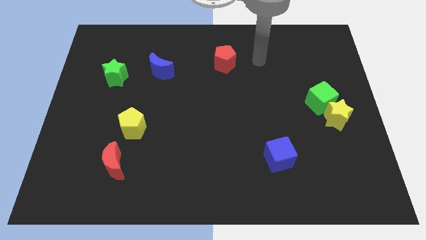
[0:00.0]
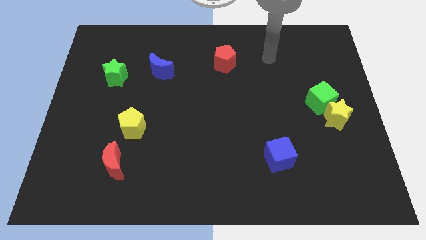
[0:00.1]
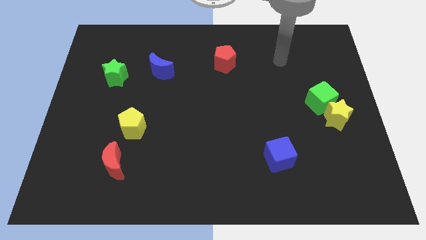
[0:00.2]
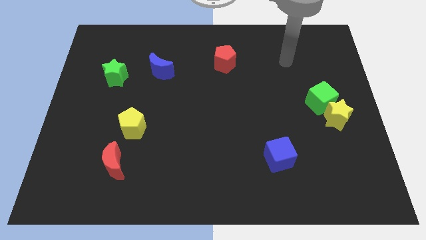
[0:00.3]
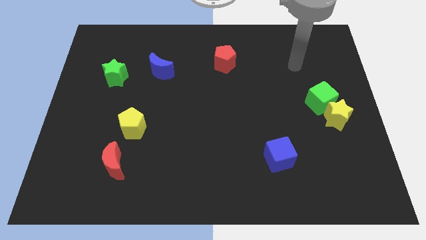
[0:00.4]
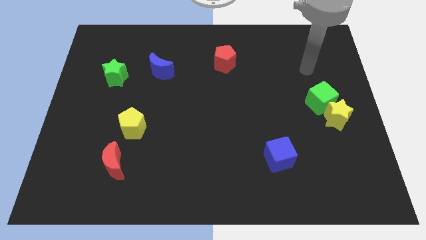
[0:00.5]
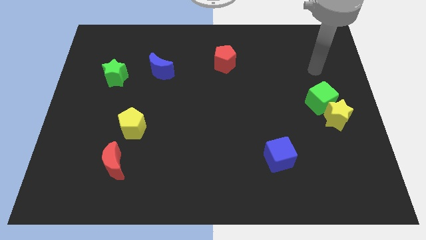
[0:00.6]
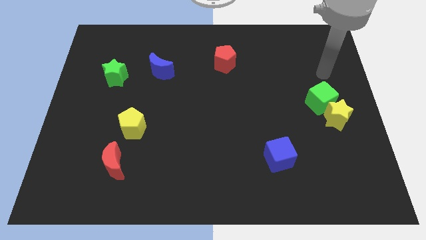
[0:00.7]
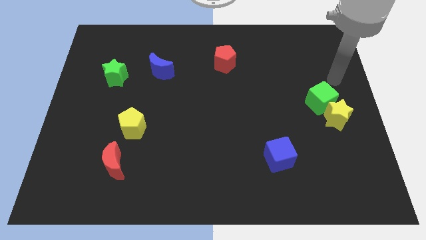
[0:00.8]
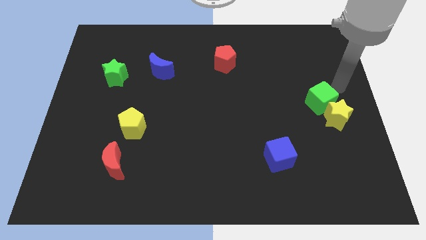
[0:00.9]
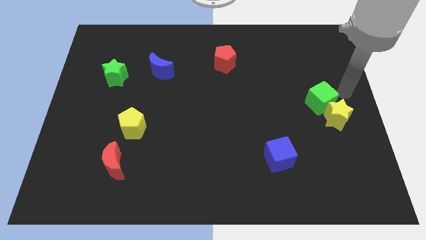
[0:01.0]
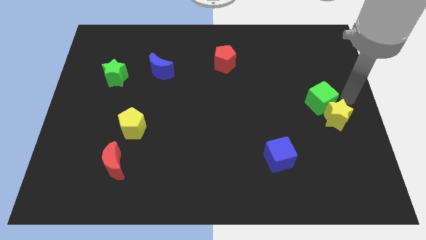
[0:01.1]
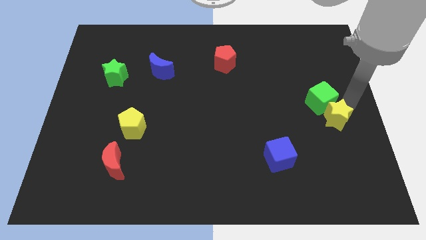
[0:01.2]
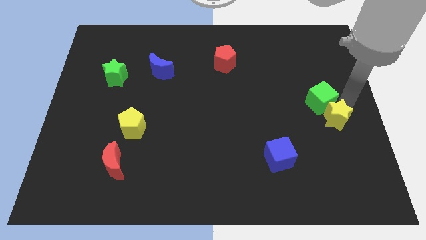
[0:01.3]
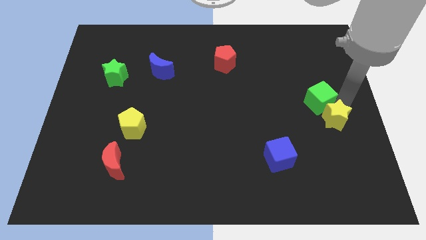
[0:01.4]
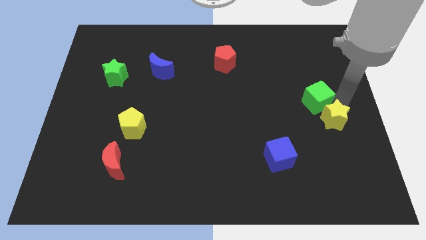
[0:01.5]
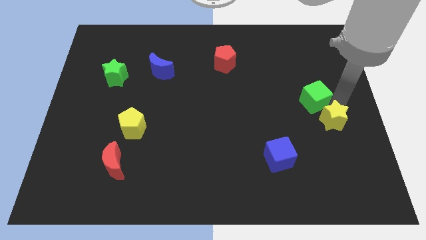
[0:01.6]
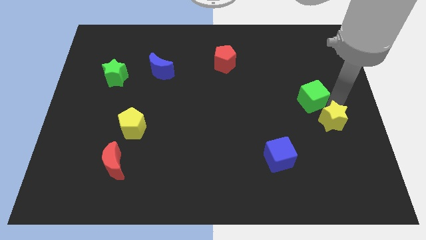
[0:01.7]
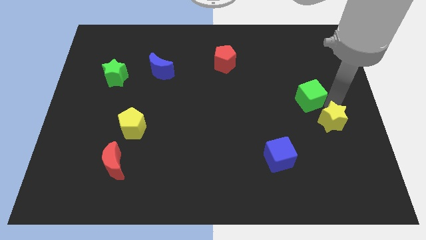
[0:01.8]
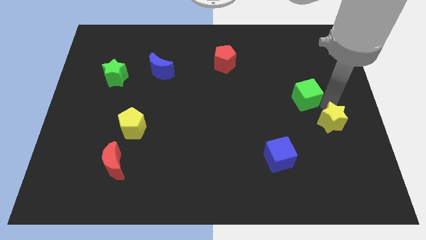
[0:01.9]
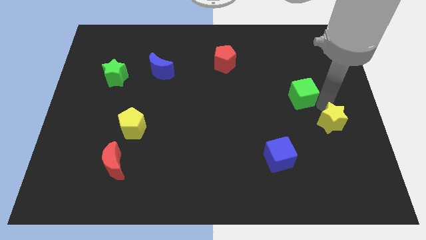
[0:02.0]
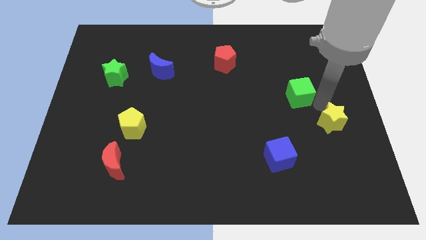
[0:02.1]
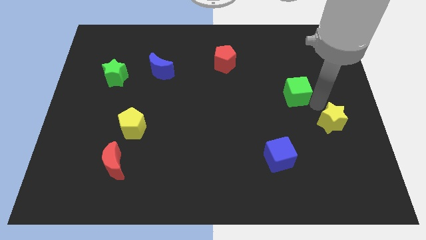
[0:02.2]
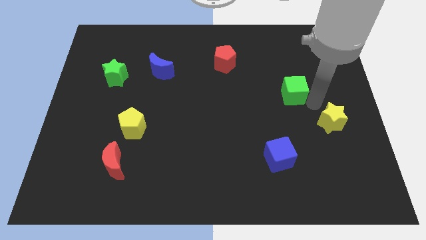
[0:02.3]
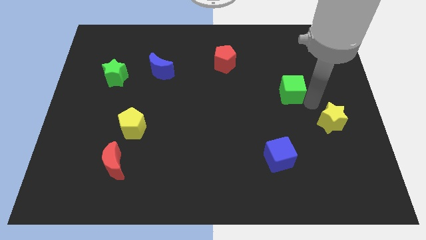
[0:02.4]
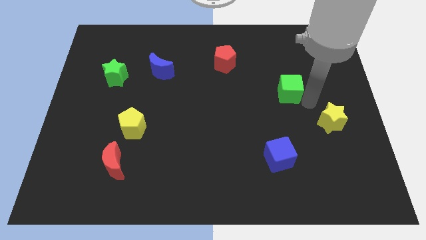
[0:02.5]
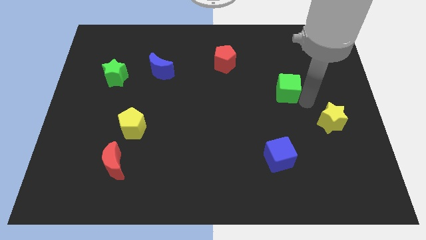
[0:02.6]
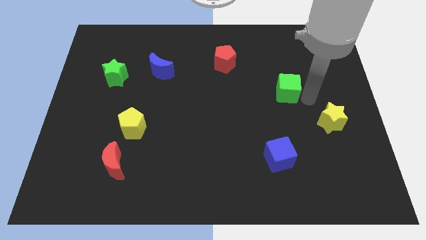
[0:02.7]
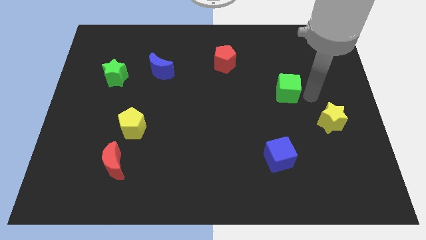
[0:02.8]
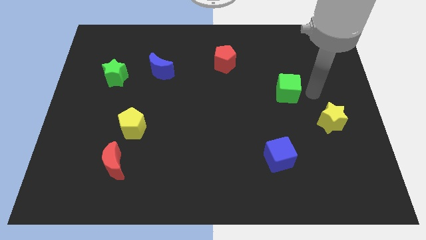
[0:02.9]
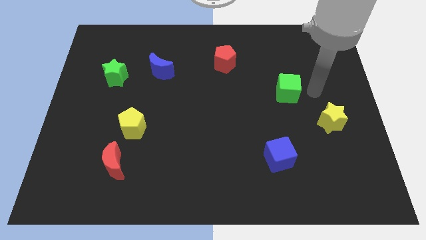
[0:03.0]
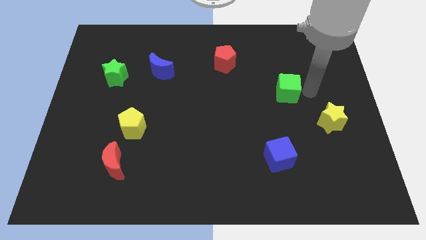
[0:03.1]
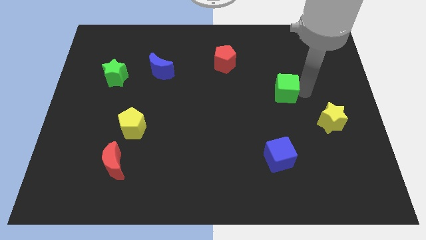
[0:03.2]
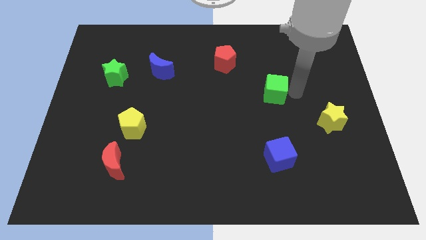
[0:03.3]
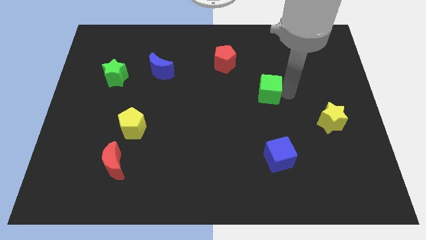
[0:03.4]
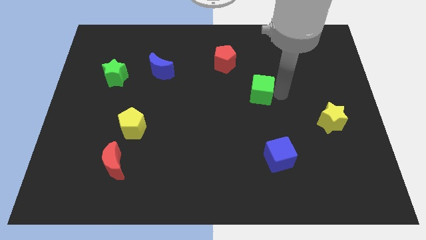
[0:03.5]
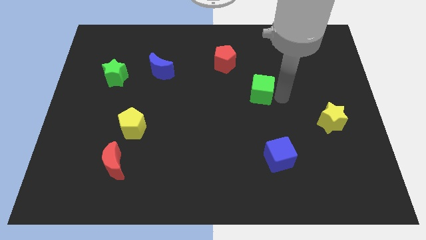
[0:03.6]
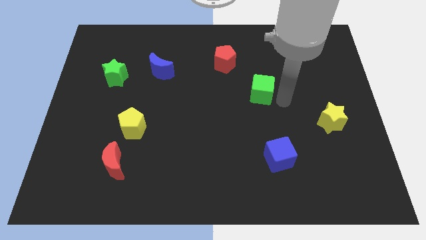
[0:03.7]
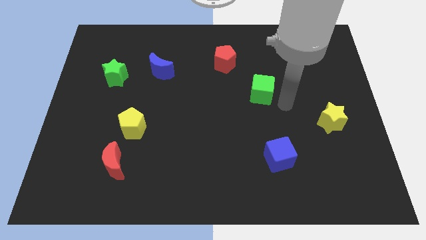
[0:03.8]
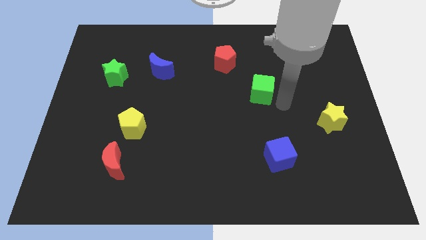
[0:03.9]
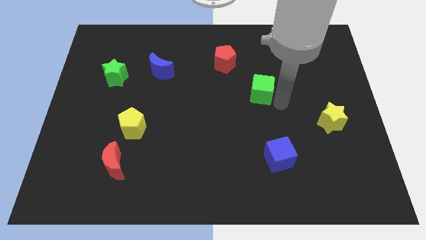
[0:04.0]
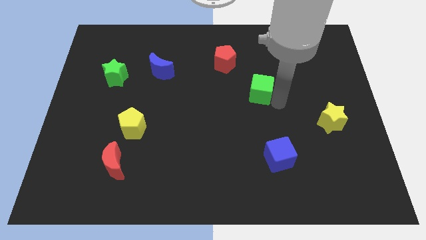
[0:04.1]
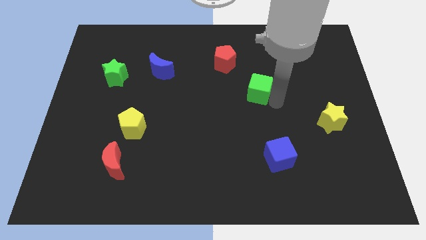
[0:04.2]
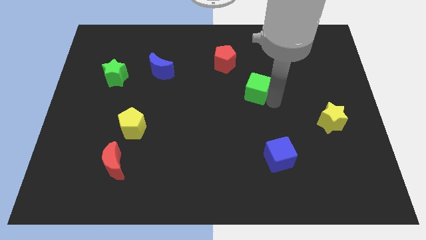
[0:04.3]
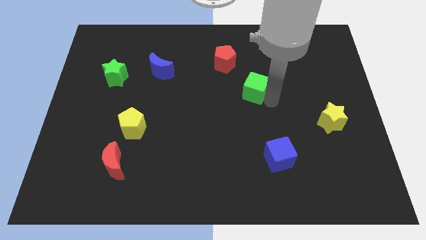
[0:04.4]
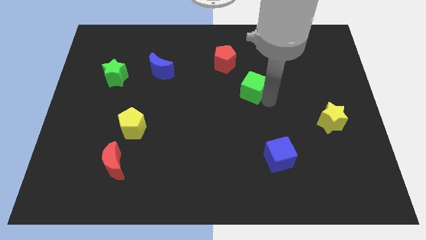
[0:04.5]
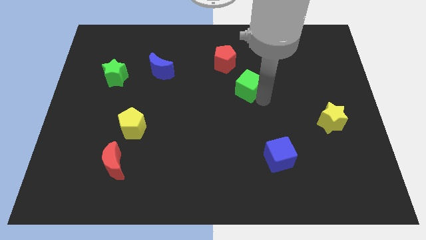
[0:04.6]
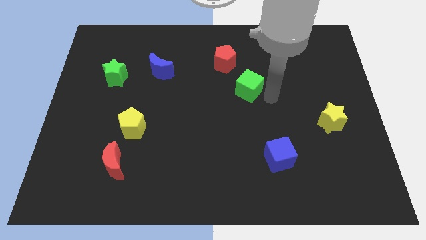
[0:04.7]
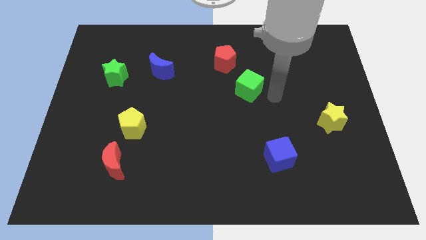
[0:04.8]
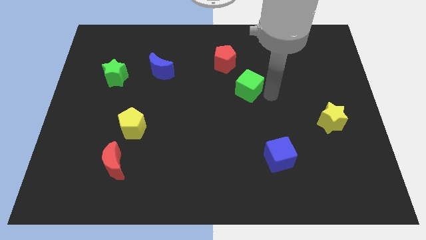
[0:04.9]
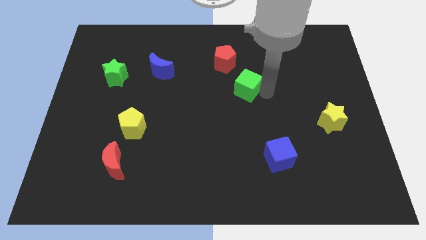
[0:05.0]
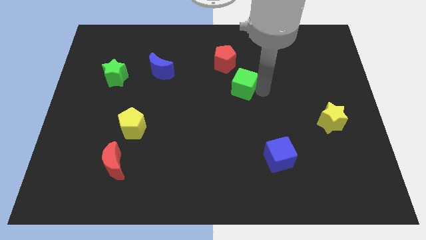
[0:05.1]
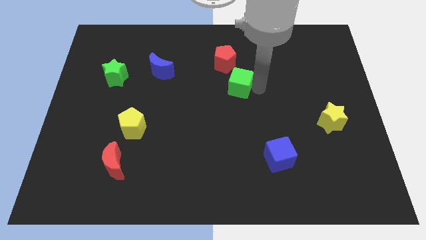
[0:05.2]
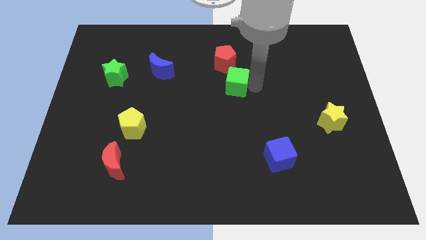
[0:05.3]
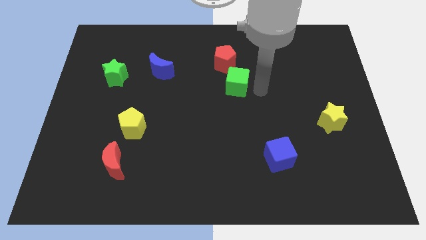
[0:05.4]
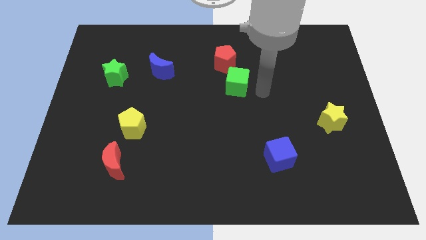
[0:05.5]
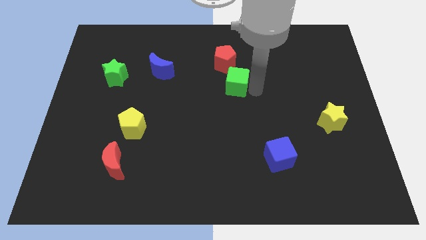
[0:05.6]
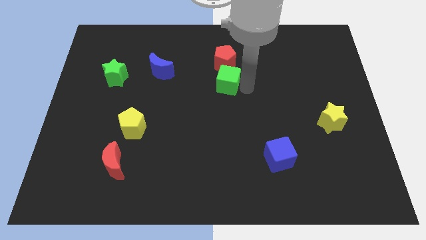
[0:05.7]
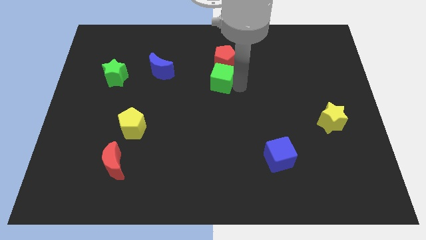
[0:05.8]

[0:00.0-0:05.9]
move the green cube to the bottom left of the red pentagon
